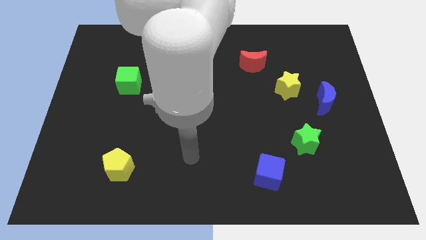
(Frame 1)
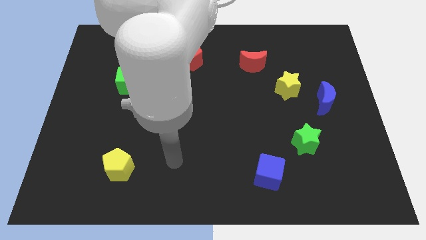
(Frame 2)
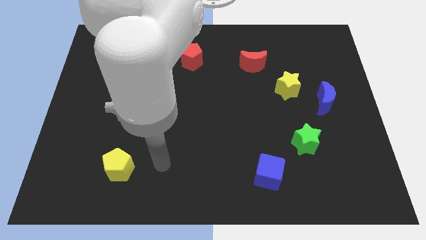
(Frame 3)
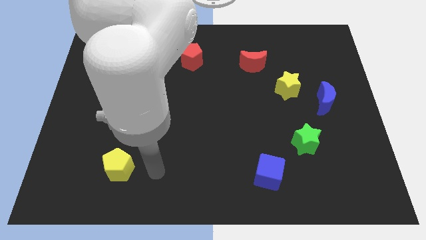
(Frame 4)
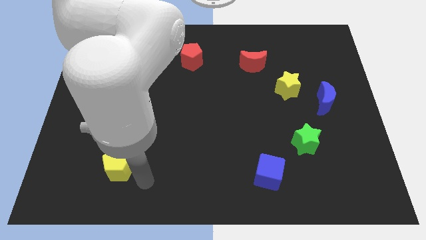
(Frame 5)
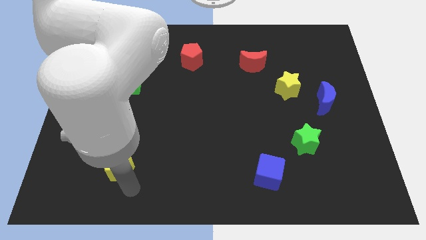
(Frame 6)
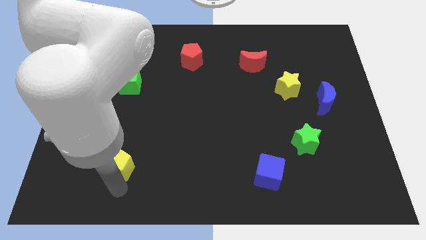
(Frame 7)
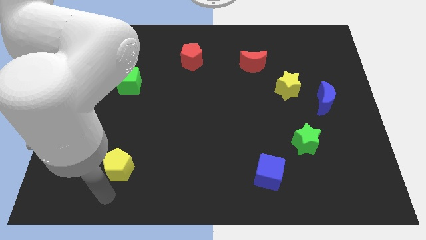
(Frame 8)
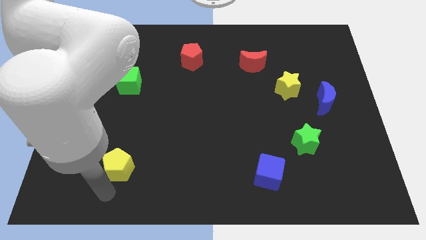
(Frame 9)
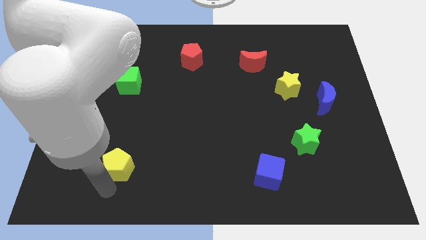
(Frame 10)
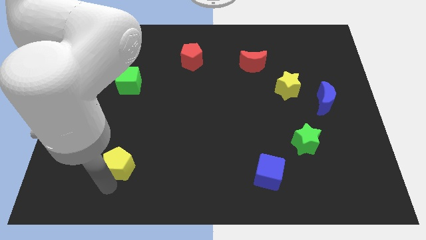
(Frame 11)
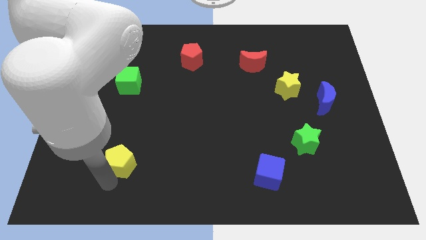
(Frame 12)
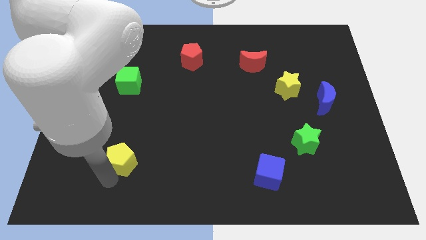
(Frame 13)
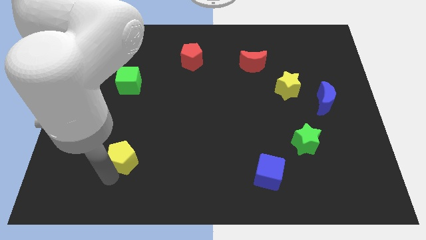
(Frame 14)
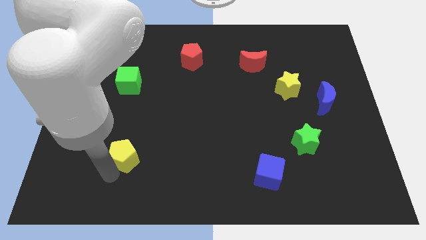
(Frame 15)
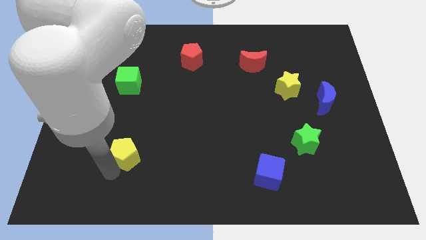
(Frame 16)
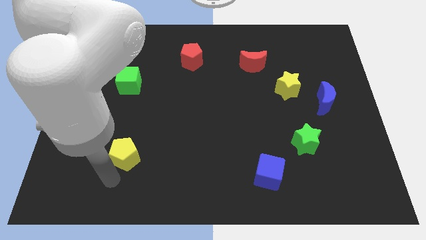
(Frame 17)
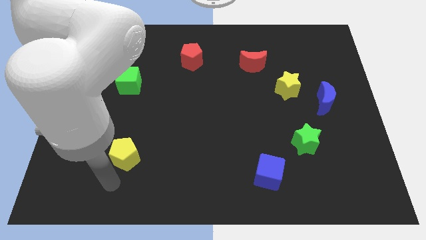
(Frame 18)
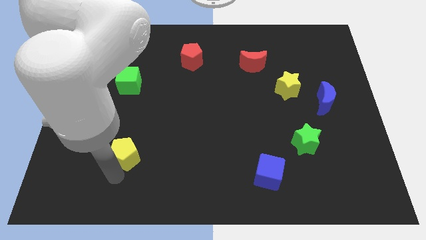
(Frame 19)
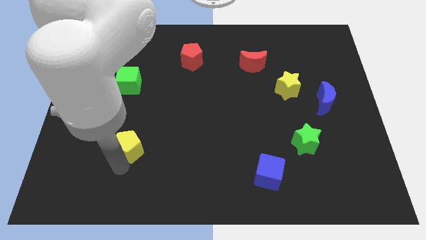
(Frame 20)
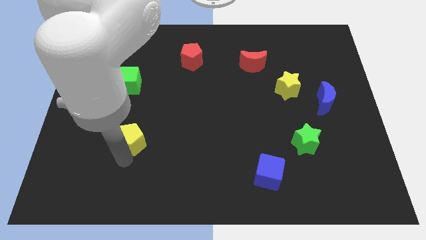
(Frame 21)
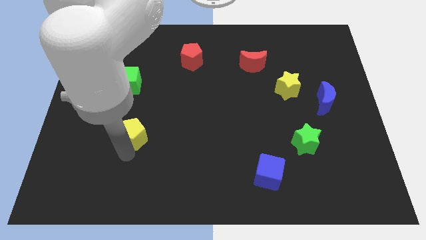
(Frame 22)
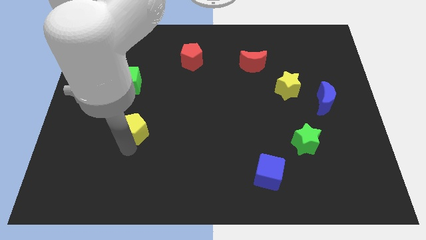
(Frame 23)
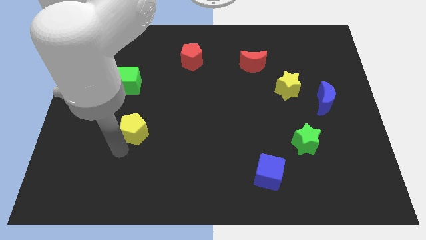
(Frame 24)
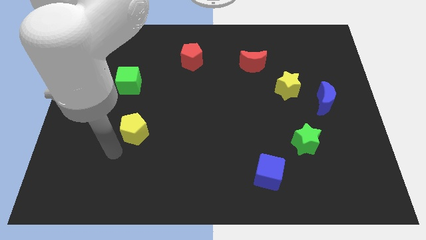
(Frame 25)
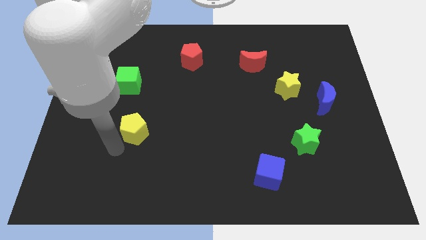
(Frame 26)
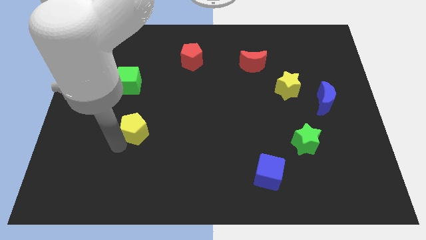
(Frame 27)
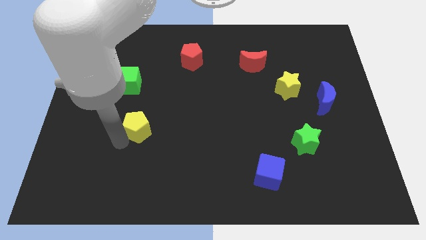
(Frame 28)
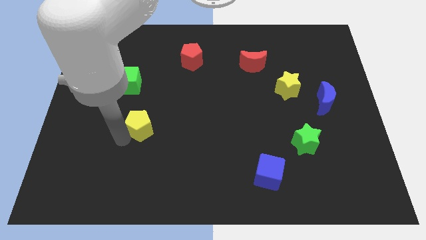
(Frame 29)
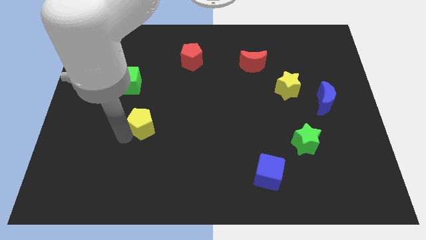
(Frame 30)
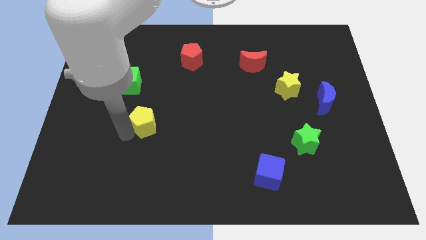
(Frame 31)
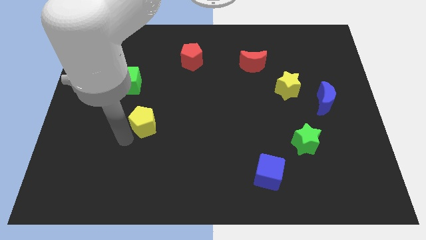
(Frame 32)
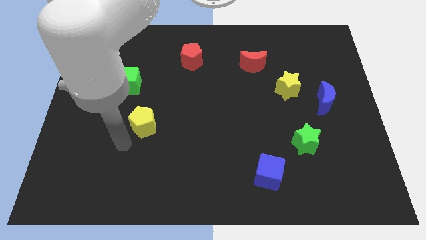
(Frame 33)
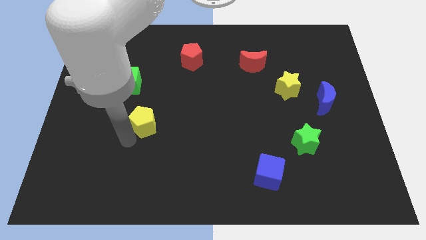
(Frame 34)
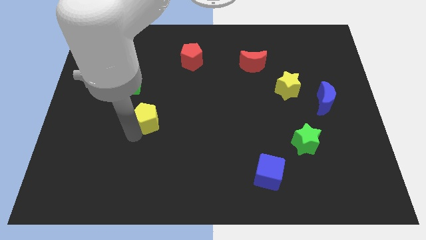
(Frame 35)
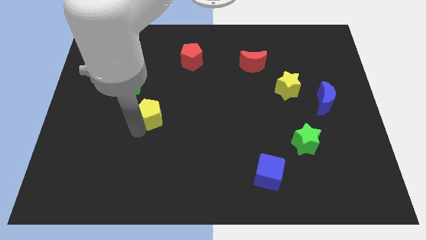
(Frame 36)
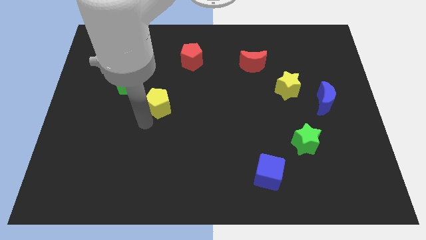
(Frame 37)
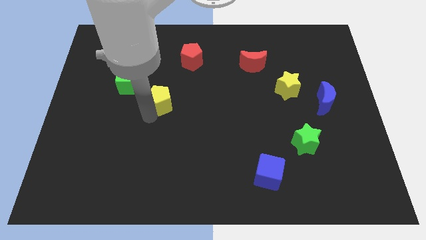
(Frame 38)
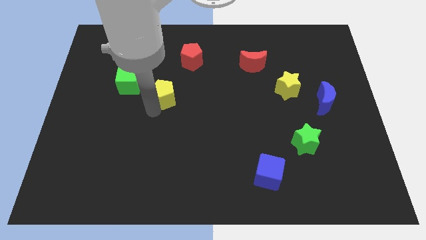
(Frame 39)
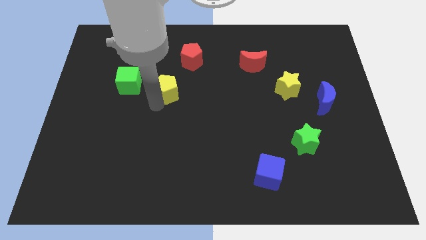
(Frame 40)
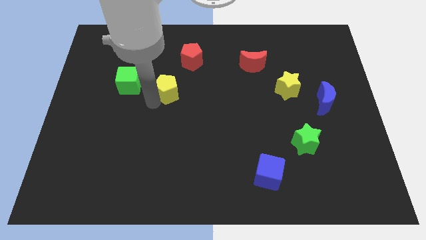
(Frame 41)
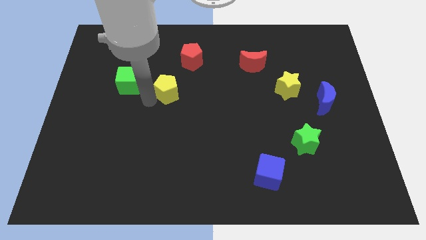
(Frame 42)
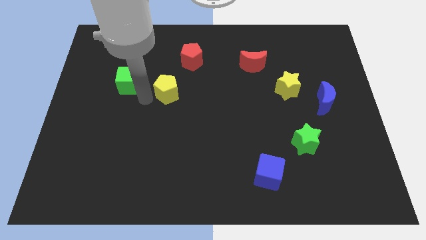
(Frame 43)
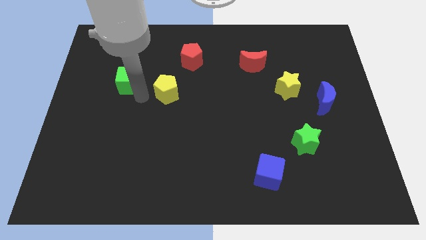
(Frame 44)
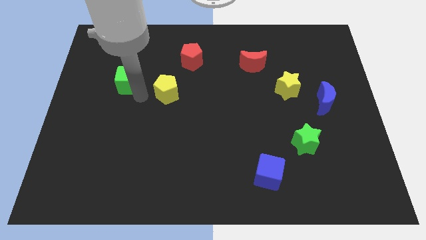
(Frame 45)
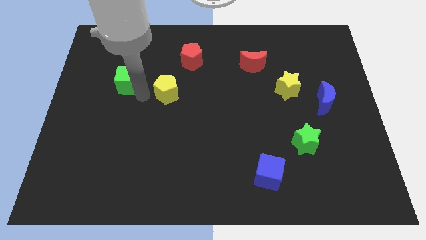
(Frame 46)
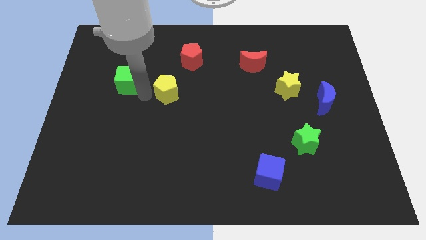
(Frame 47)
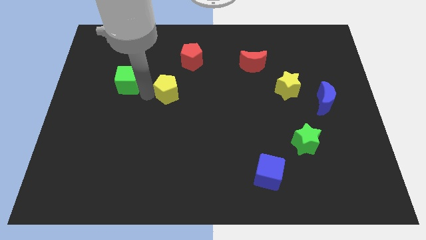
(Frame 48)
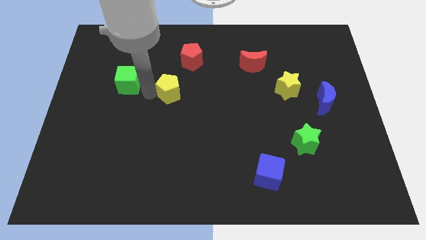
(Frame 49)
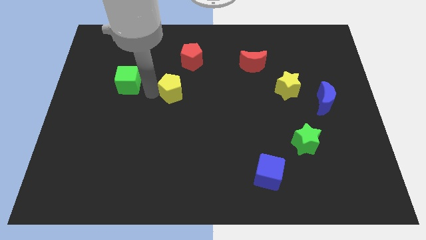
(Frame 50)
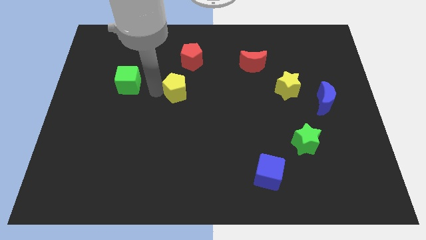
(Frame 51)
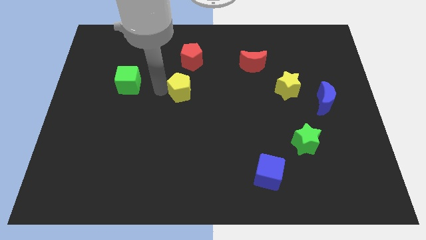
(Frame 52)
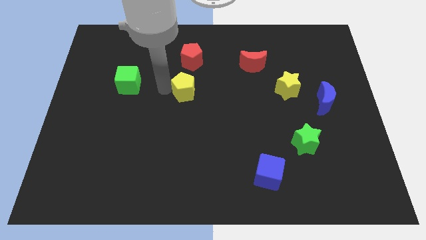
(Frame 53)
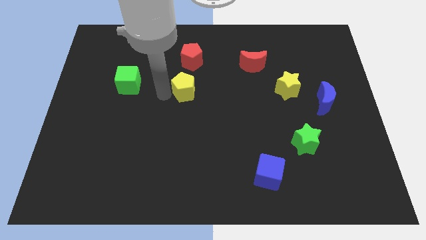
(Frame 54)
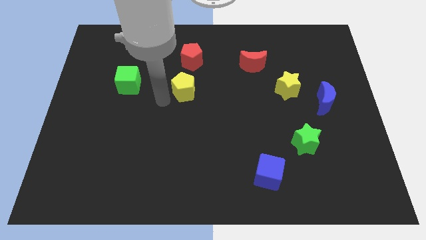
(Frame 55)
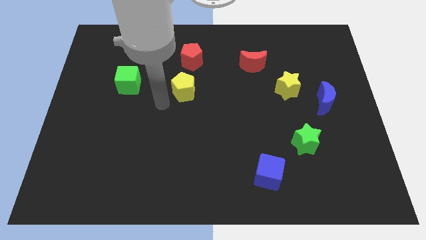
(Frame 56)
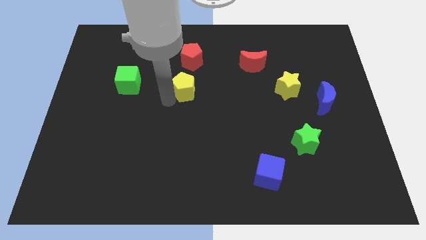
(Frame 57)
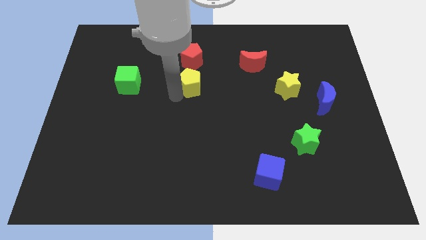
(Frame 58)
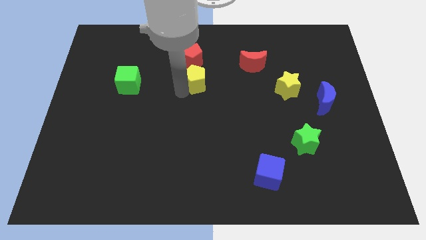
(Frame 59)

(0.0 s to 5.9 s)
put the yellow pentagon to the bottom right side of the red pentagon

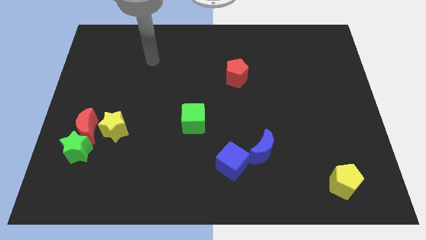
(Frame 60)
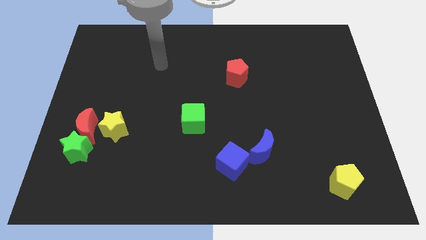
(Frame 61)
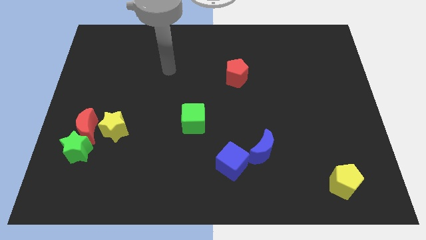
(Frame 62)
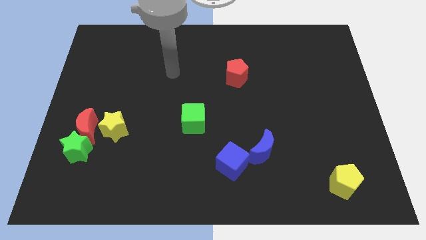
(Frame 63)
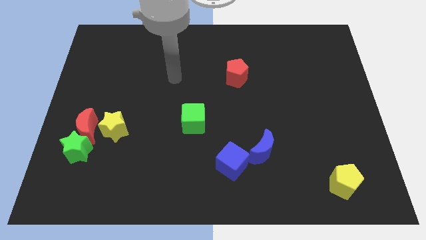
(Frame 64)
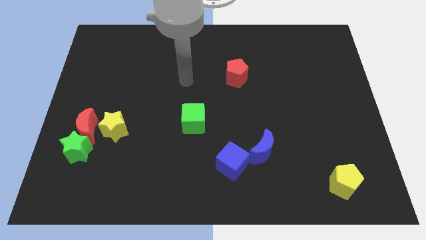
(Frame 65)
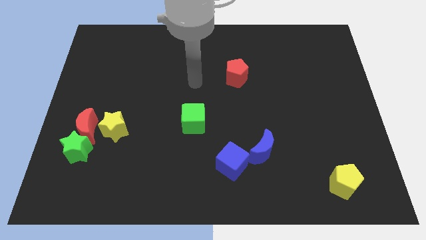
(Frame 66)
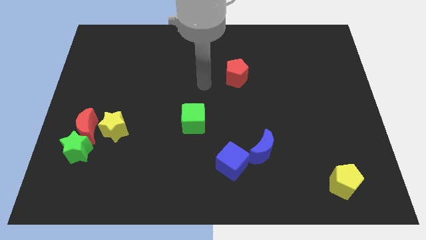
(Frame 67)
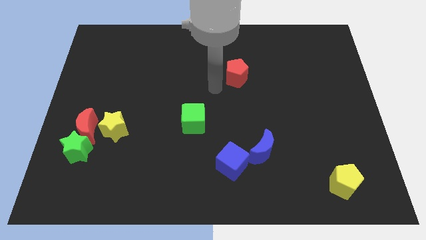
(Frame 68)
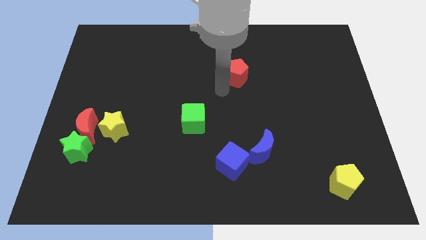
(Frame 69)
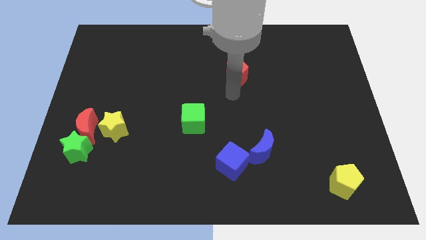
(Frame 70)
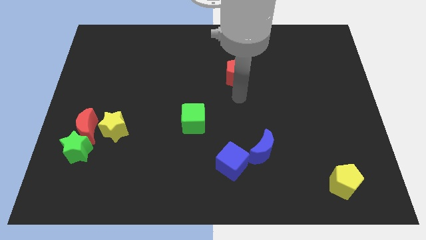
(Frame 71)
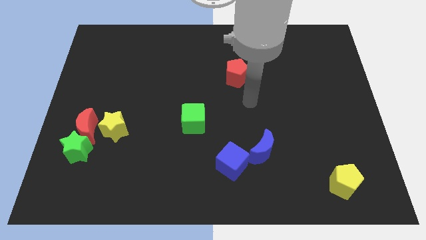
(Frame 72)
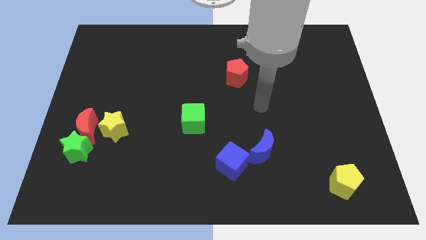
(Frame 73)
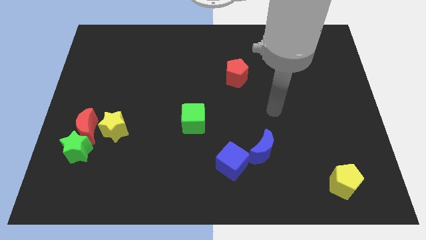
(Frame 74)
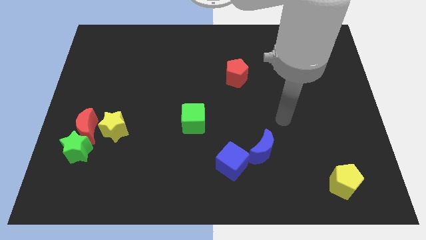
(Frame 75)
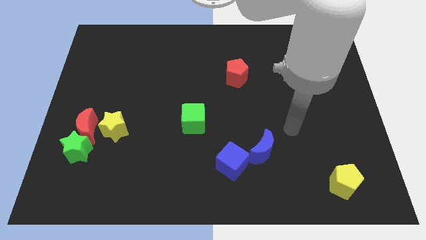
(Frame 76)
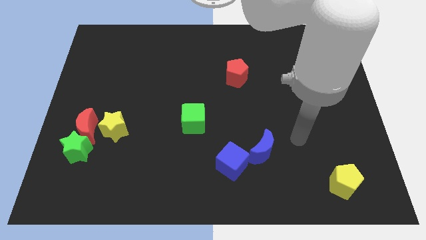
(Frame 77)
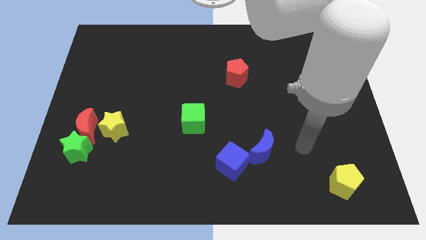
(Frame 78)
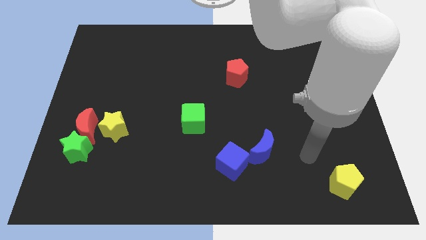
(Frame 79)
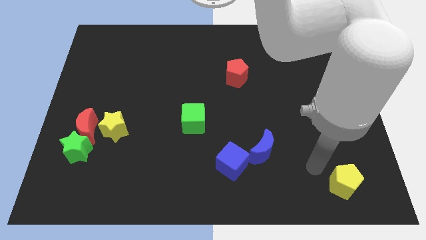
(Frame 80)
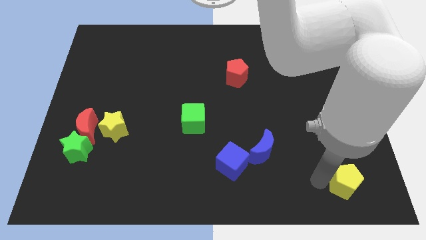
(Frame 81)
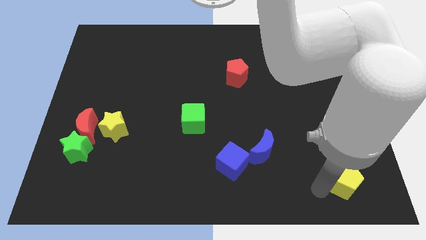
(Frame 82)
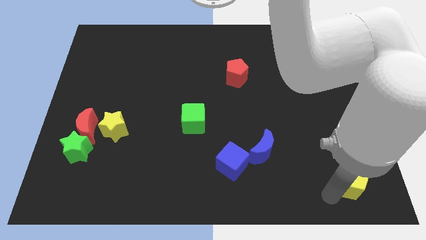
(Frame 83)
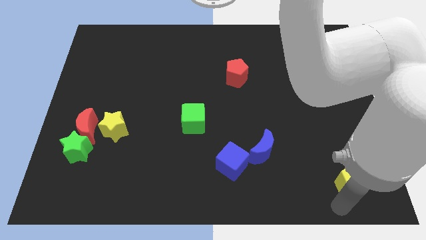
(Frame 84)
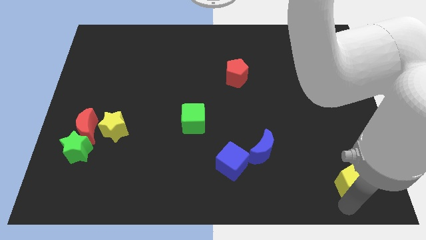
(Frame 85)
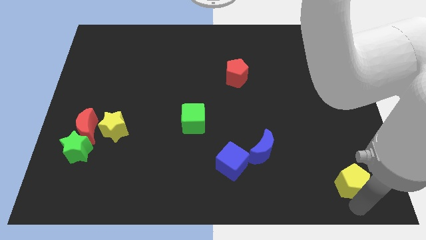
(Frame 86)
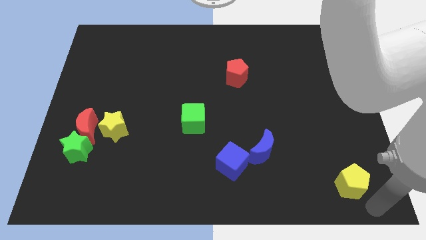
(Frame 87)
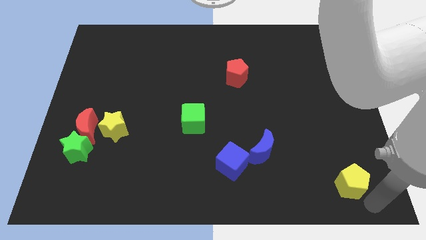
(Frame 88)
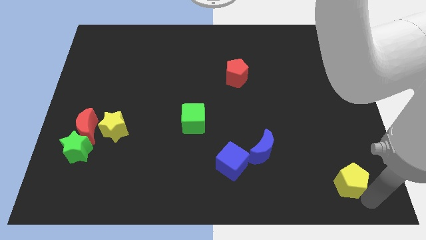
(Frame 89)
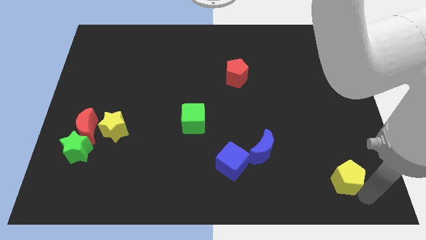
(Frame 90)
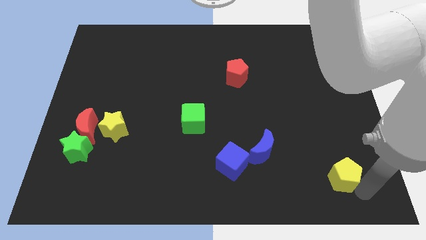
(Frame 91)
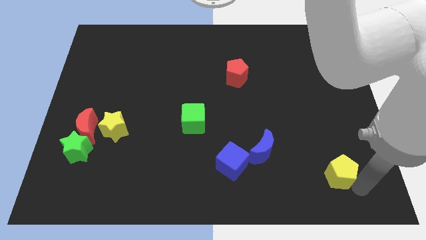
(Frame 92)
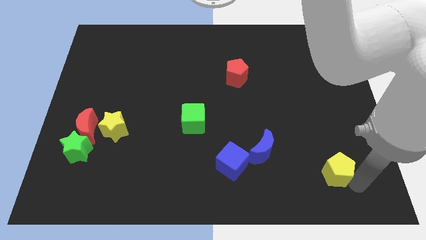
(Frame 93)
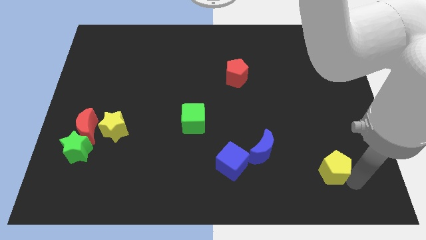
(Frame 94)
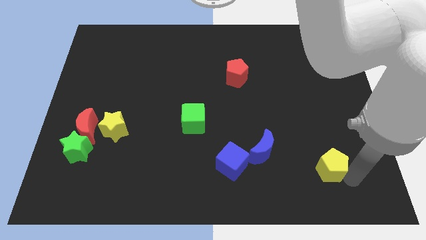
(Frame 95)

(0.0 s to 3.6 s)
put the yellow pentagon right of the blue moon
